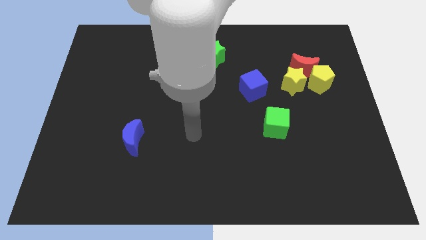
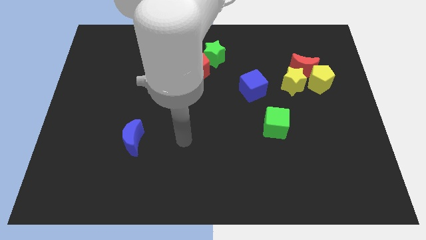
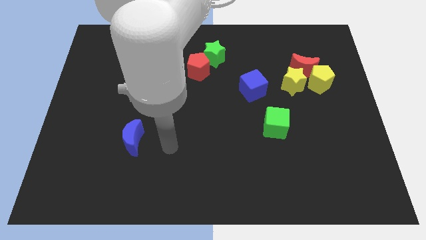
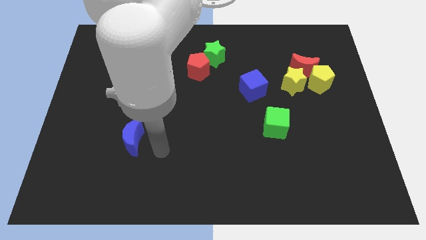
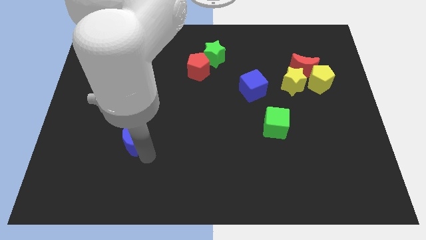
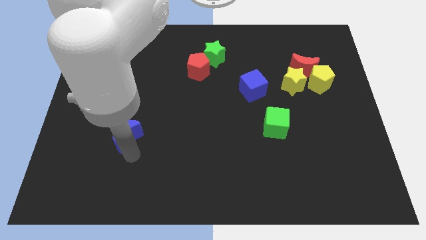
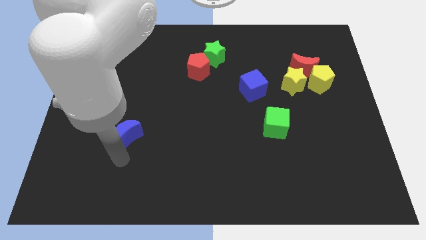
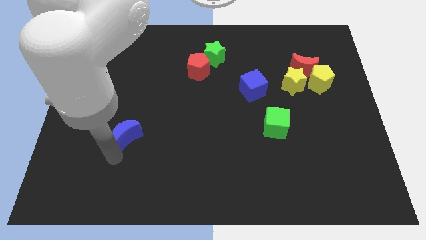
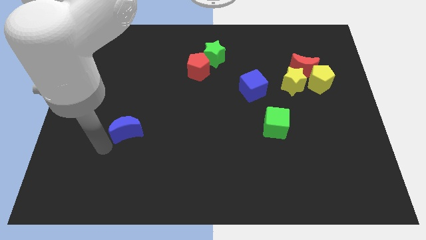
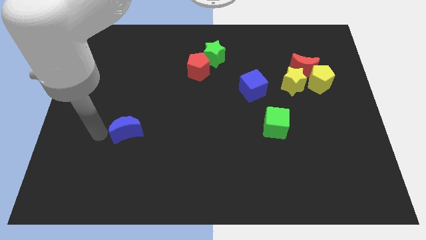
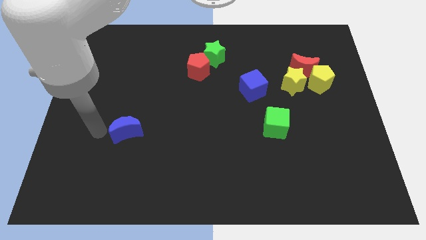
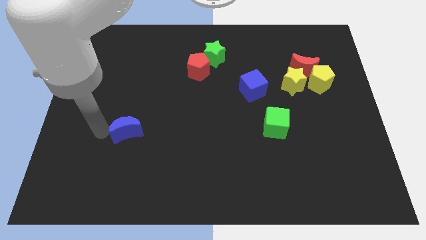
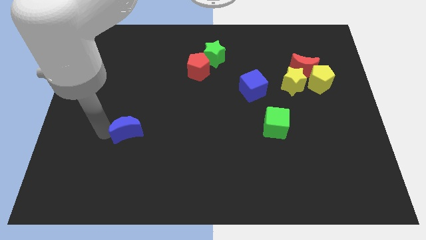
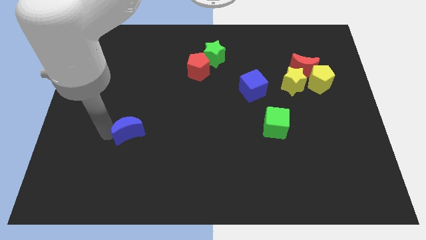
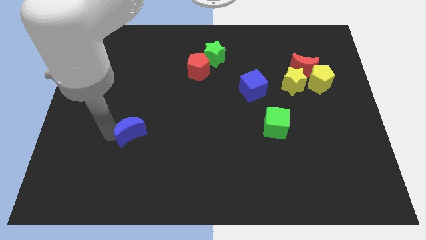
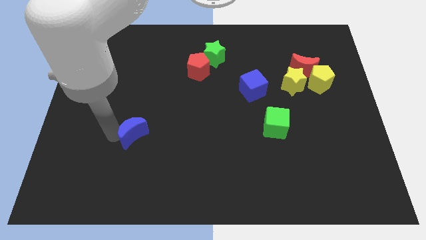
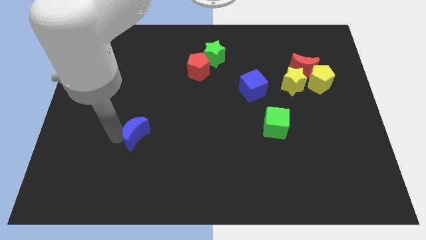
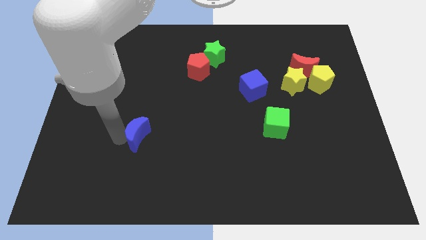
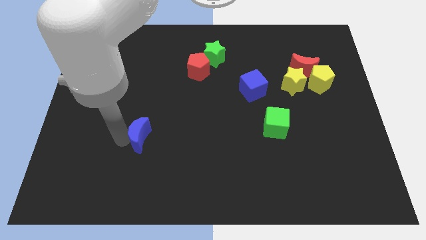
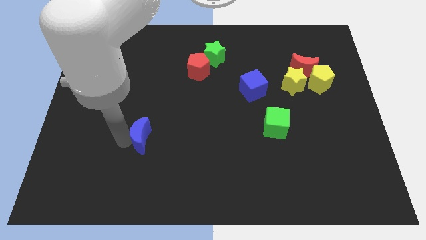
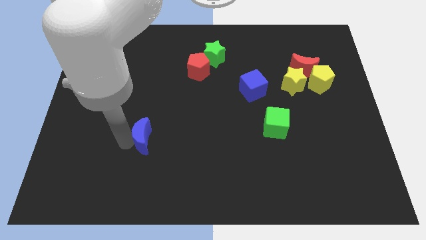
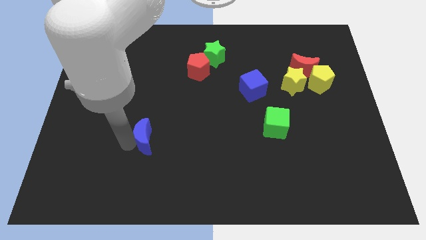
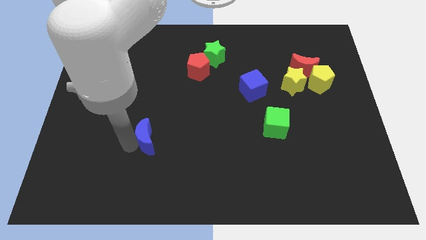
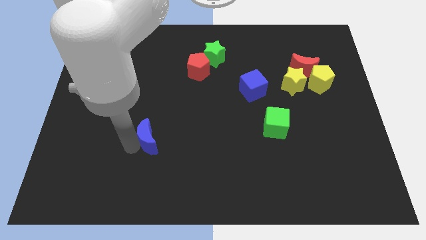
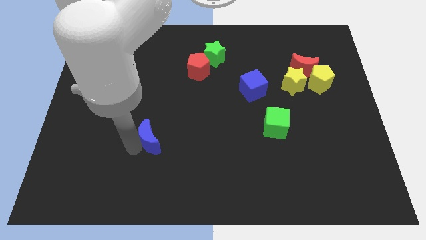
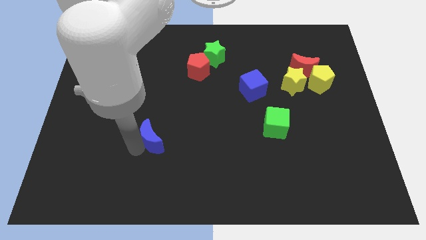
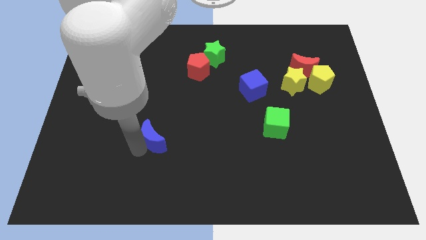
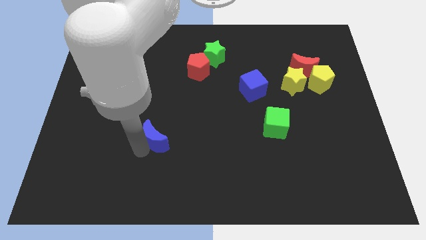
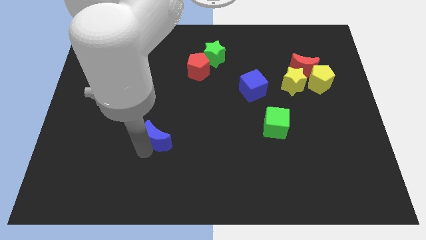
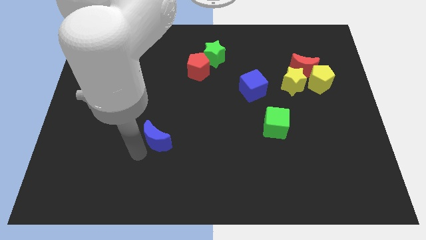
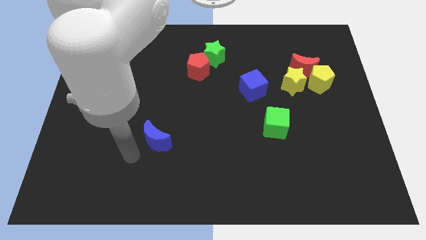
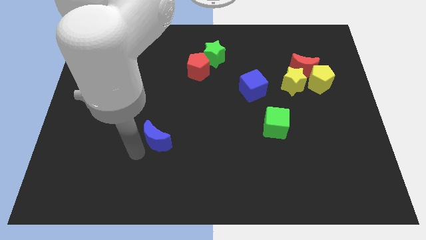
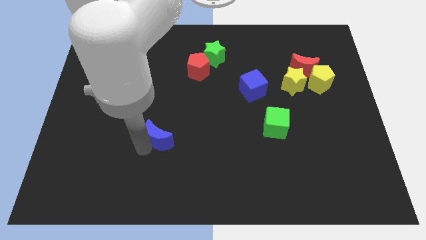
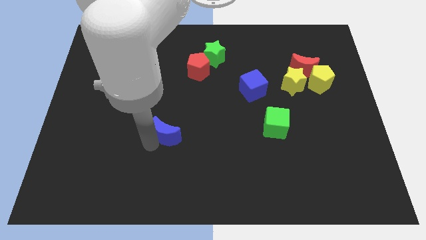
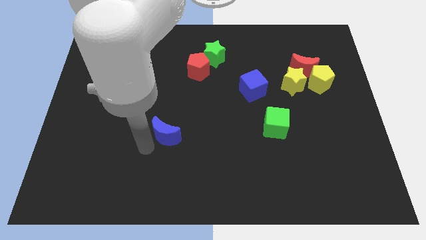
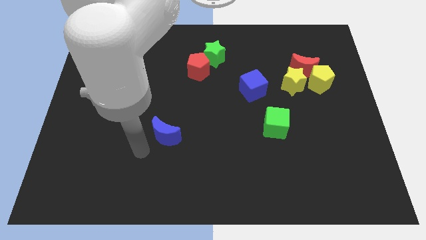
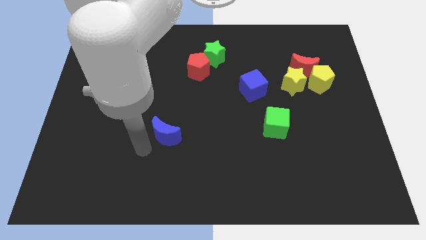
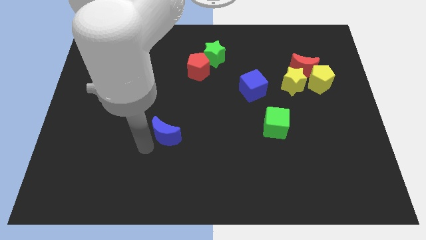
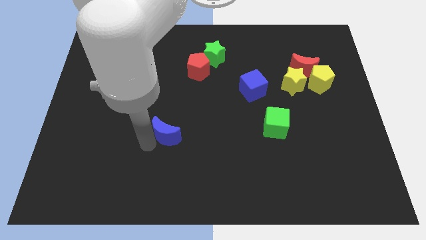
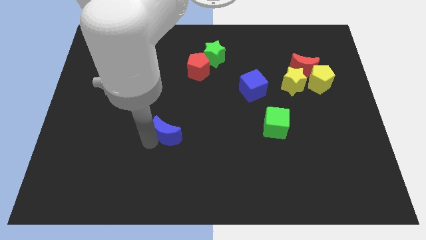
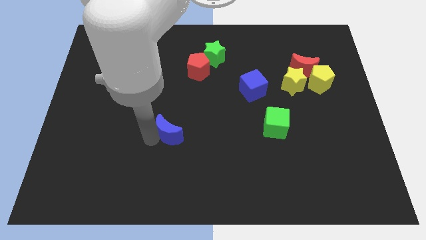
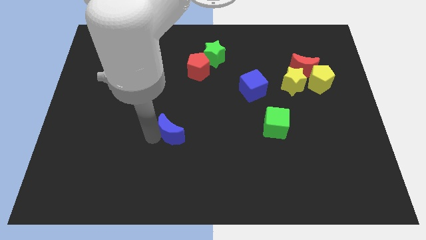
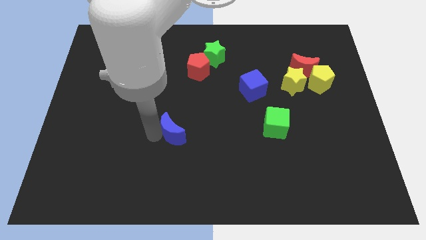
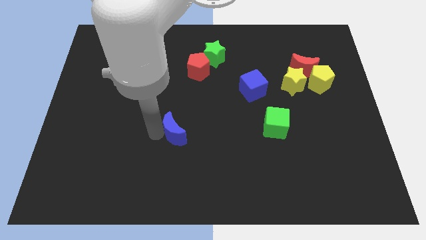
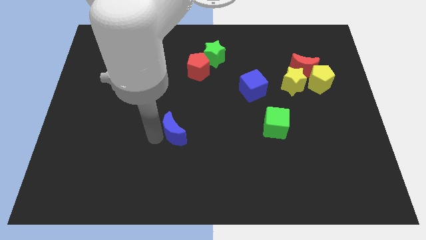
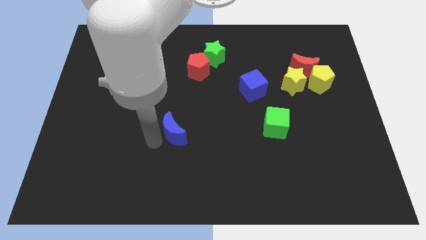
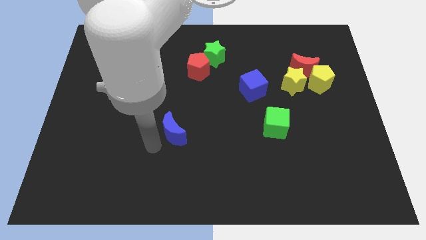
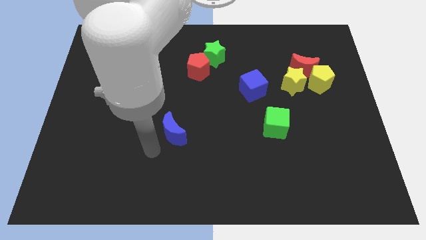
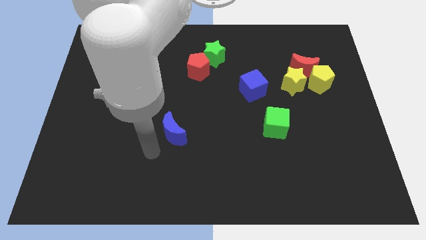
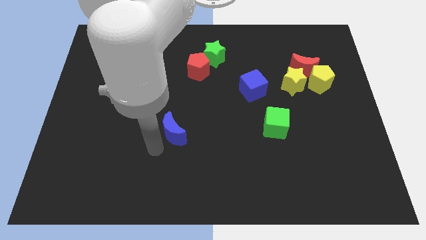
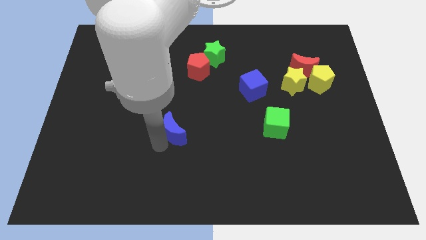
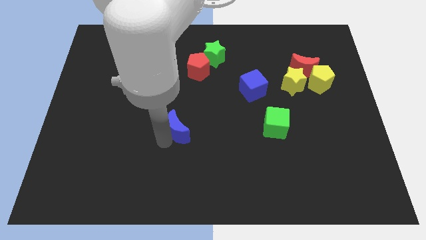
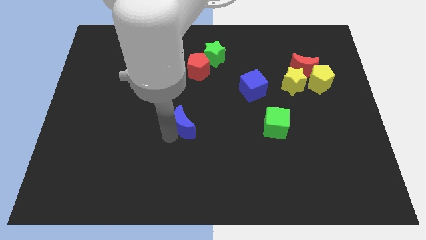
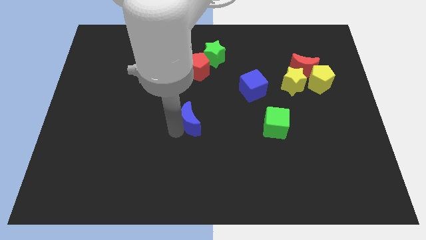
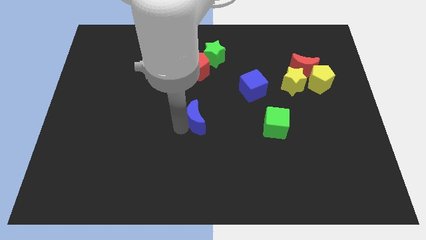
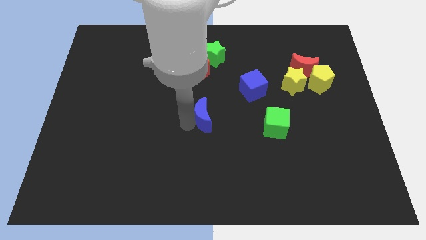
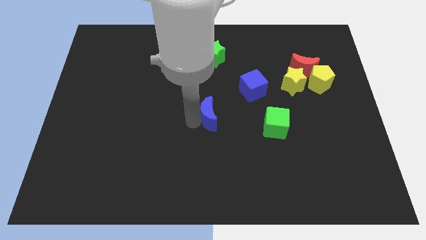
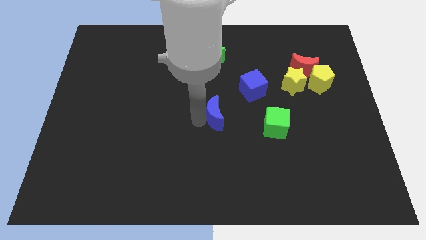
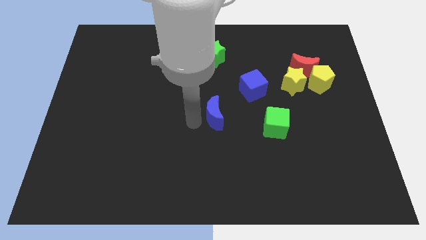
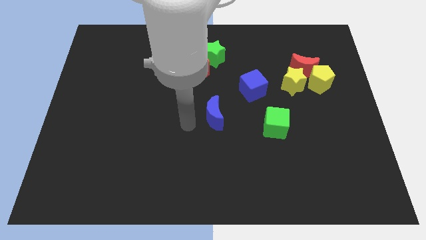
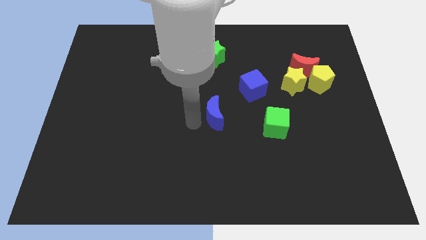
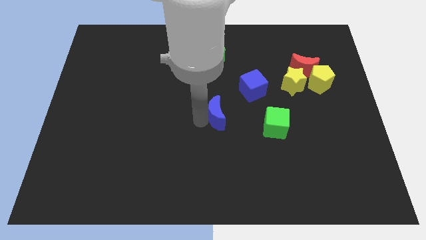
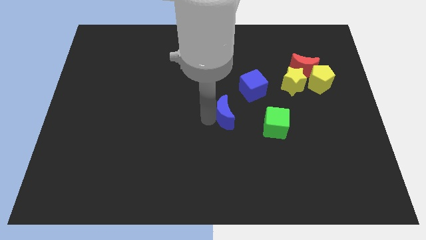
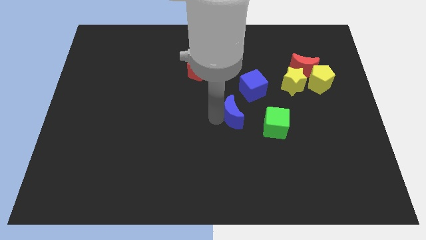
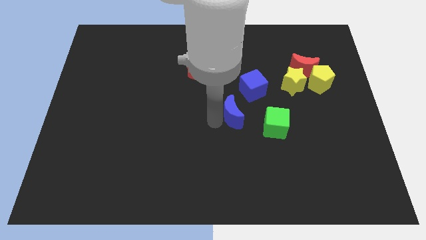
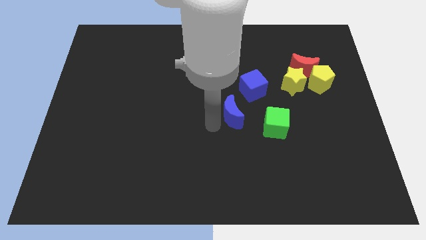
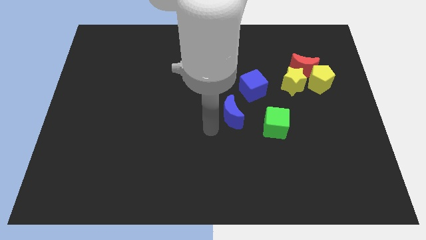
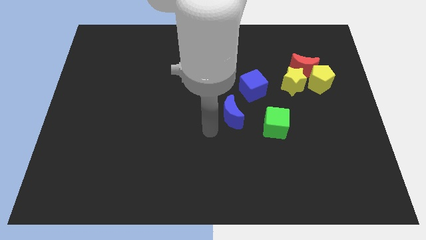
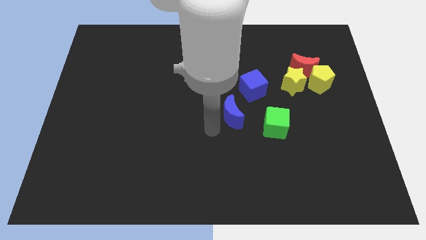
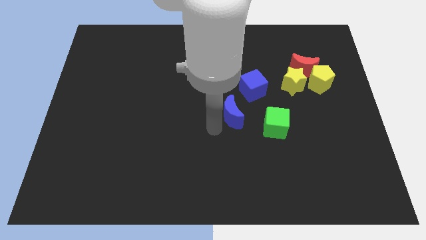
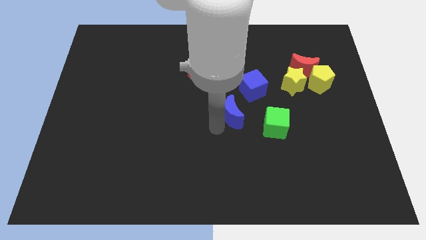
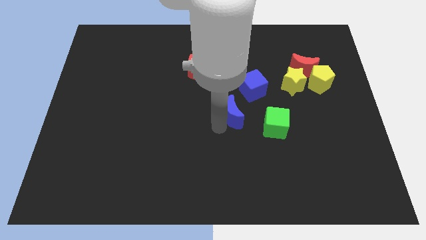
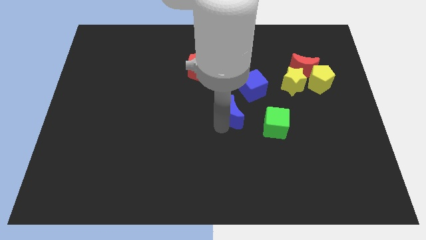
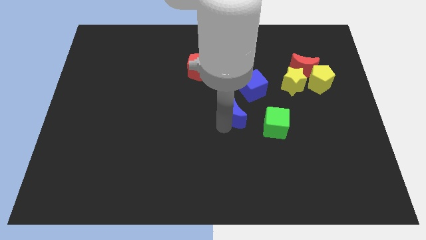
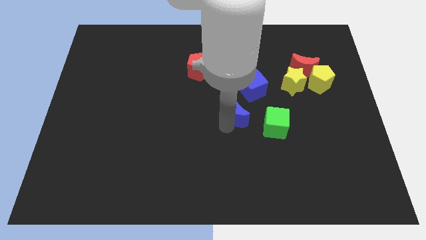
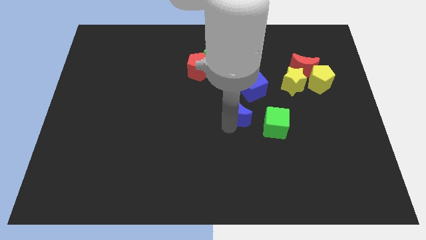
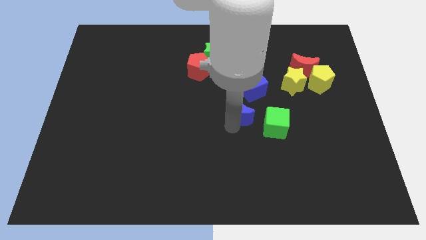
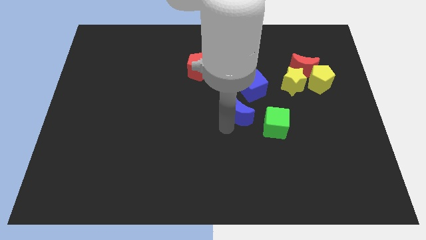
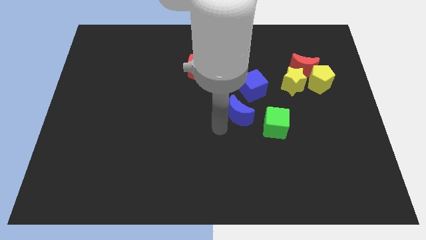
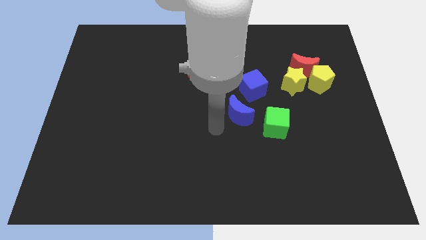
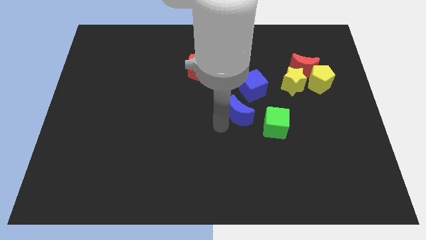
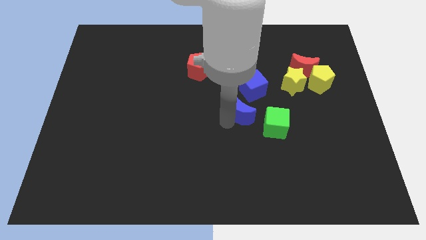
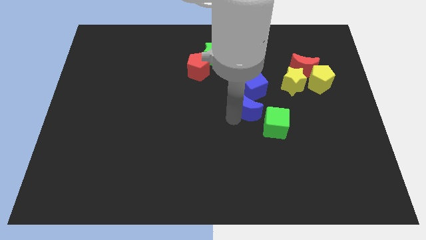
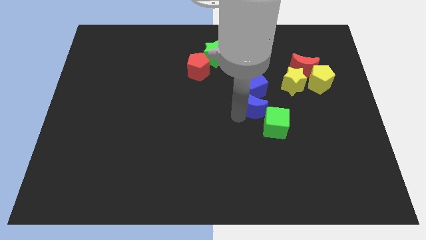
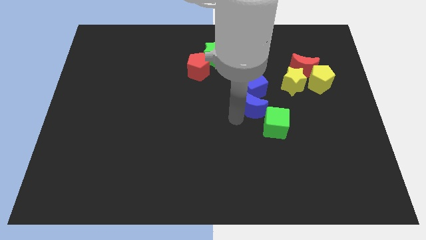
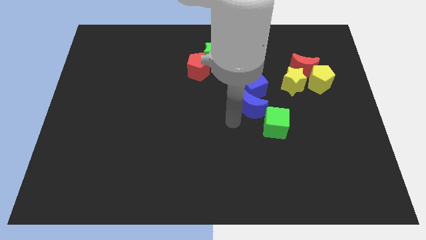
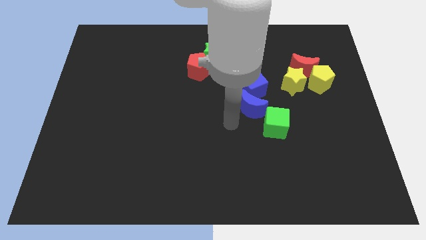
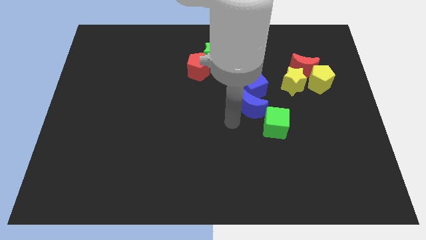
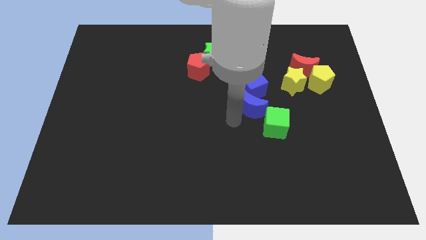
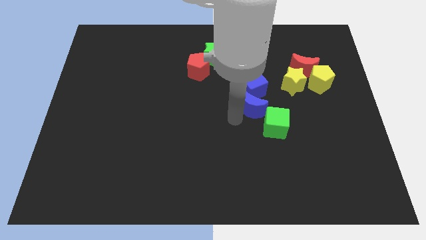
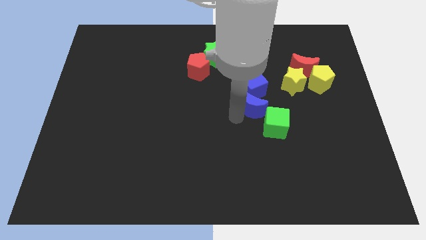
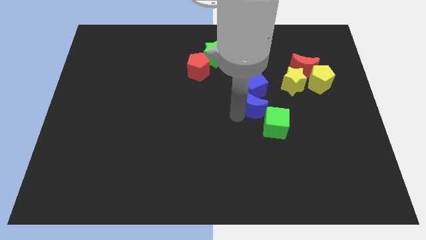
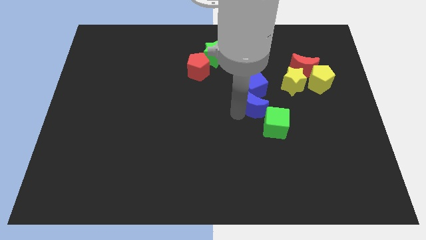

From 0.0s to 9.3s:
put the blue moon to the top of the green cube
